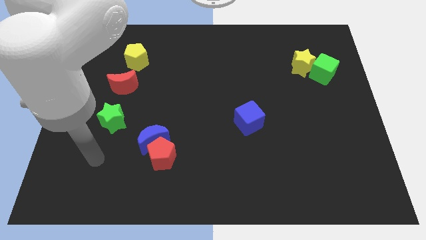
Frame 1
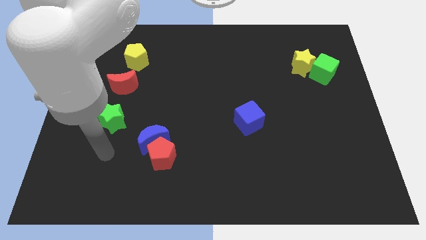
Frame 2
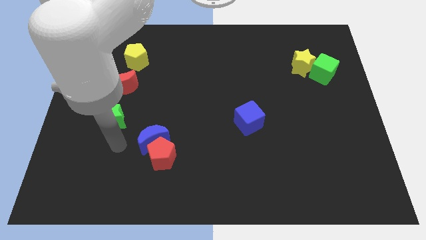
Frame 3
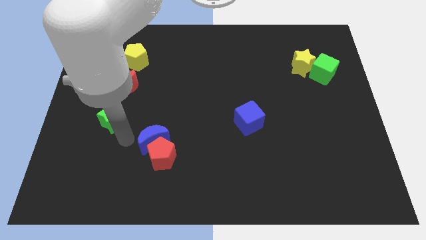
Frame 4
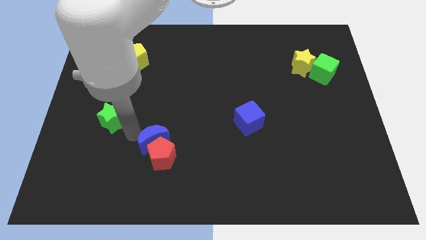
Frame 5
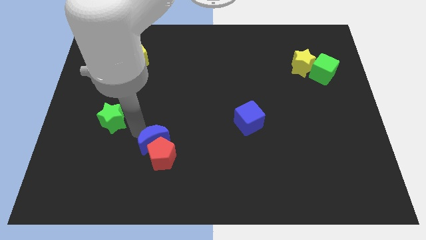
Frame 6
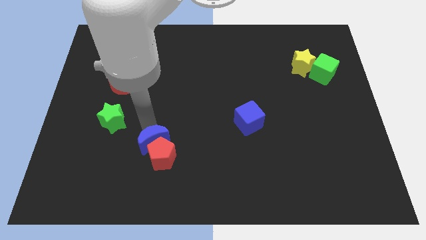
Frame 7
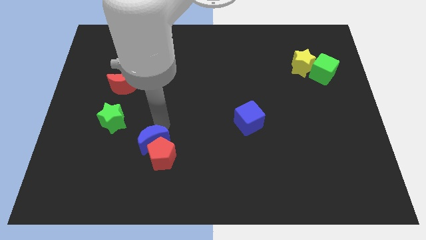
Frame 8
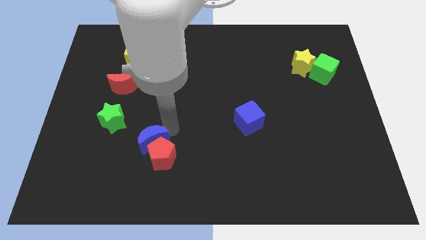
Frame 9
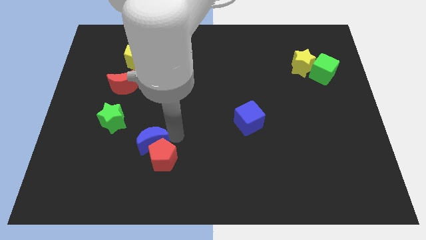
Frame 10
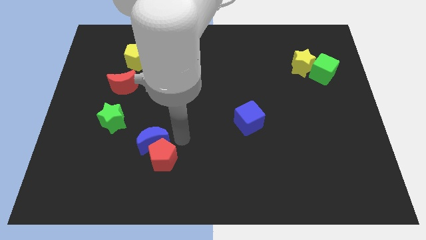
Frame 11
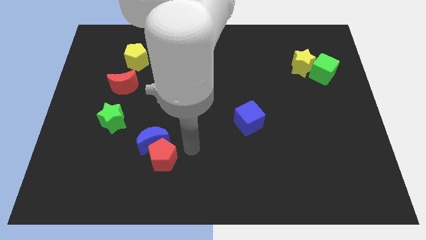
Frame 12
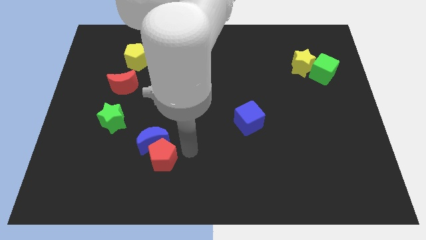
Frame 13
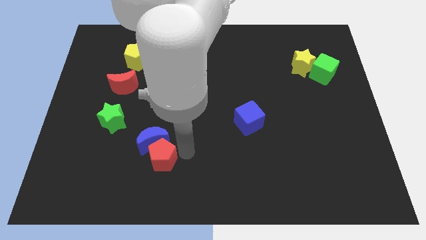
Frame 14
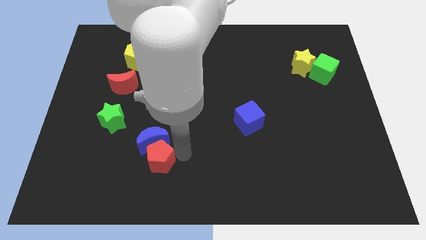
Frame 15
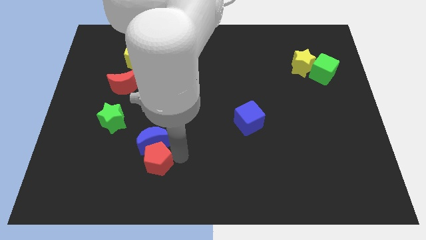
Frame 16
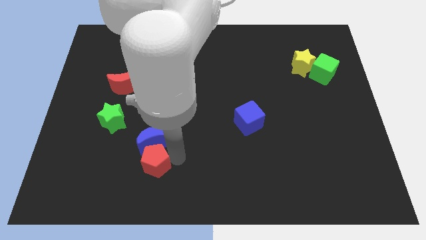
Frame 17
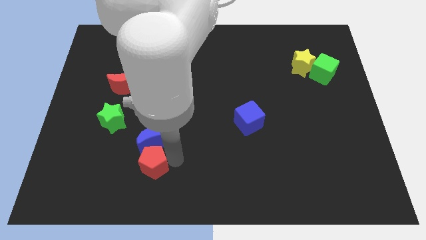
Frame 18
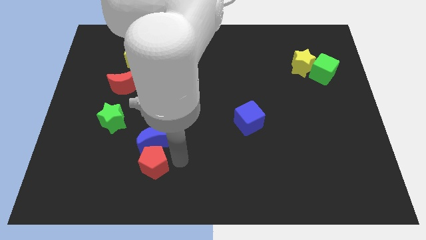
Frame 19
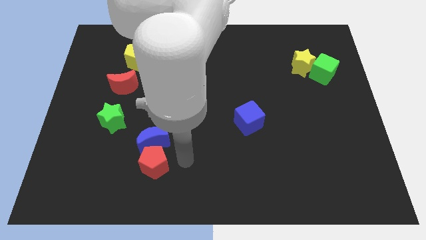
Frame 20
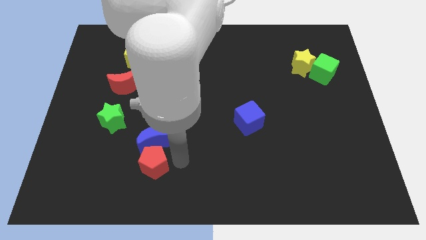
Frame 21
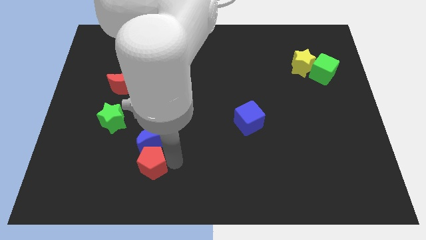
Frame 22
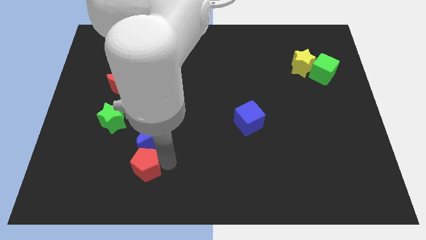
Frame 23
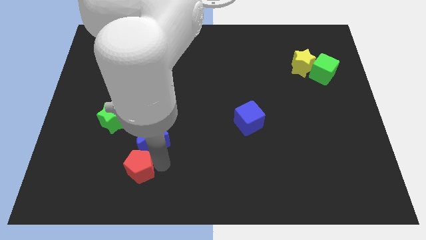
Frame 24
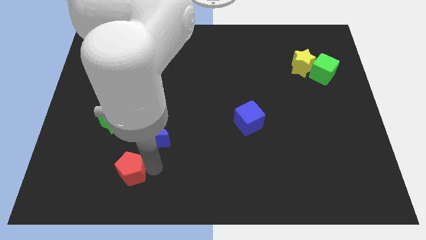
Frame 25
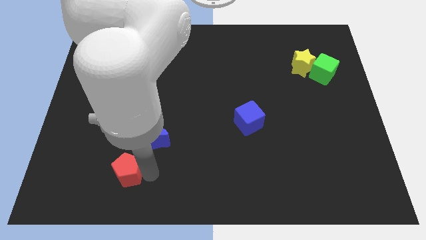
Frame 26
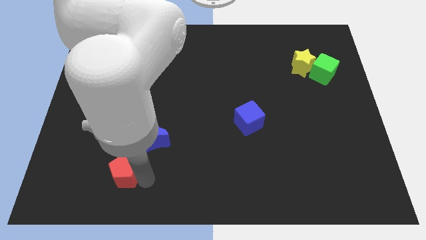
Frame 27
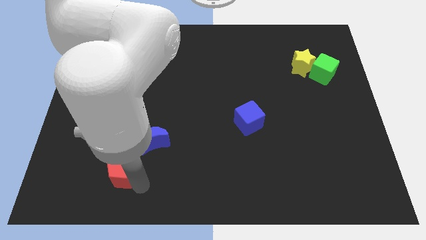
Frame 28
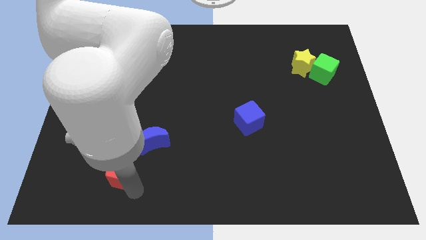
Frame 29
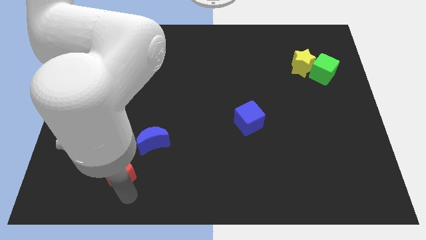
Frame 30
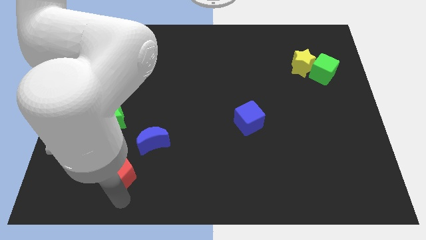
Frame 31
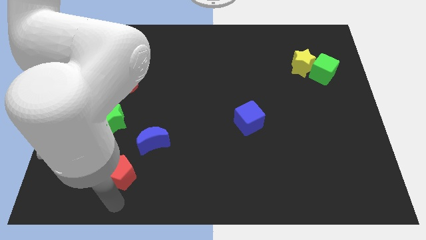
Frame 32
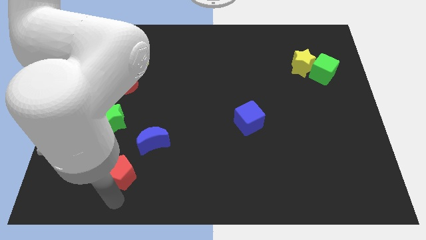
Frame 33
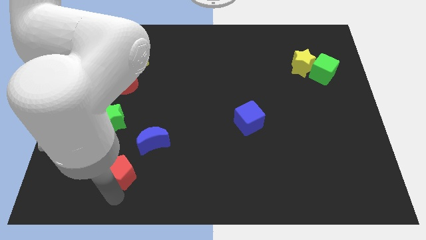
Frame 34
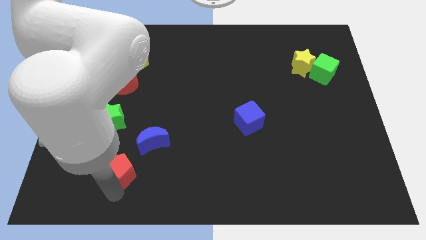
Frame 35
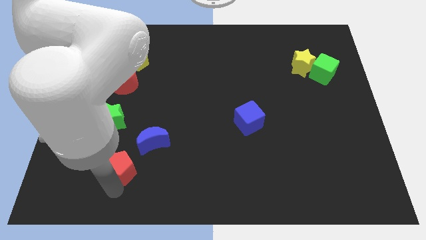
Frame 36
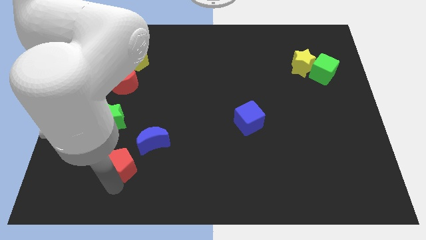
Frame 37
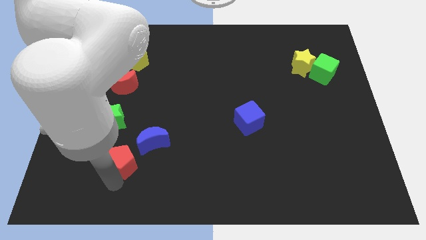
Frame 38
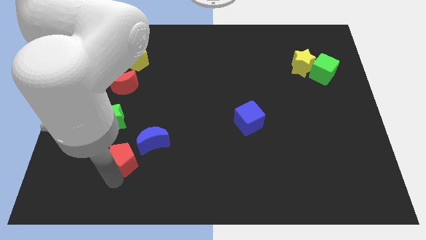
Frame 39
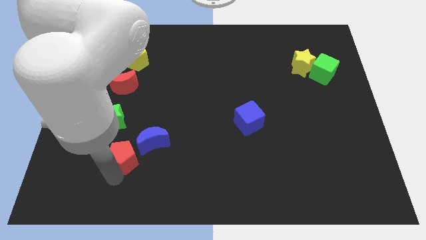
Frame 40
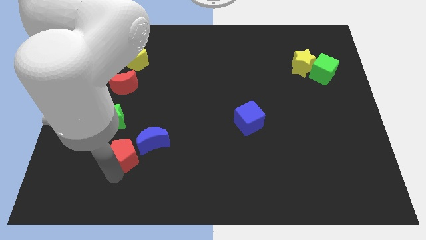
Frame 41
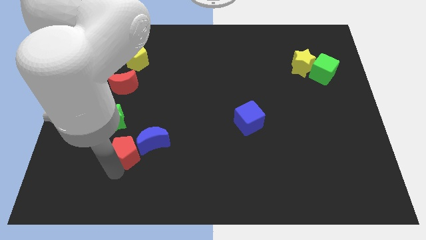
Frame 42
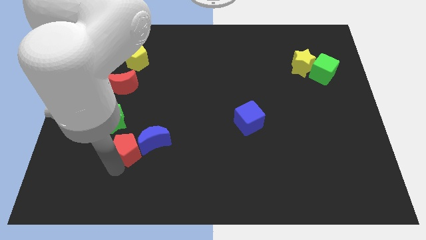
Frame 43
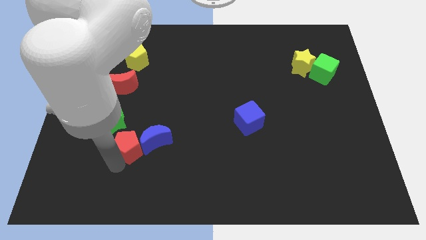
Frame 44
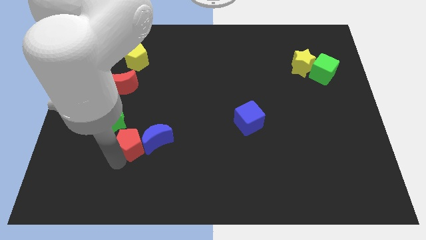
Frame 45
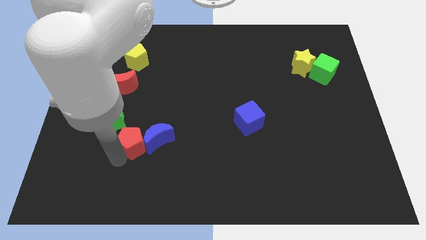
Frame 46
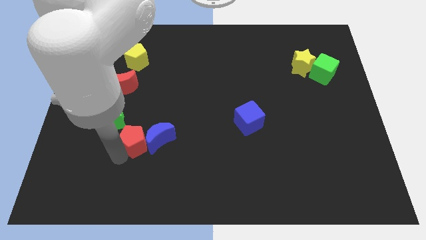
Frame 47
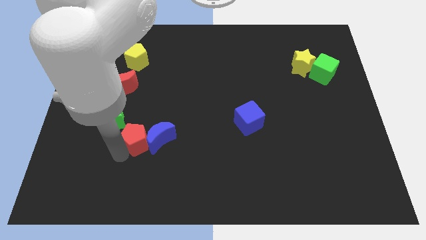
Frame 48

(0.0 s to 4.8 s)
move the red pentagon somewhat upwards and then left

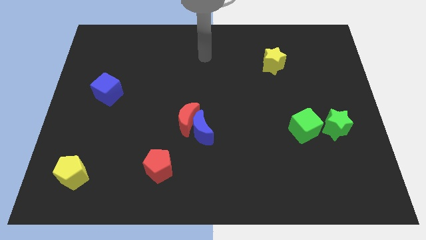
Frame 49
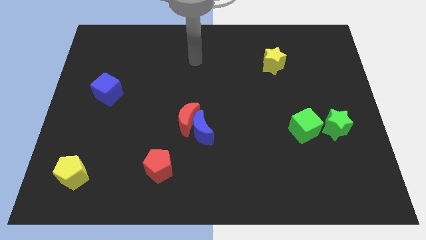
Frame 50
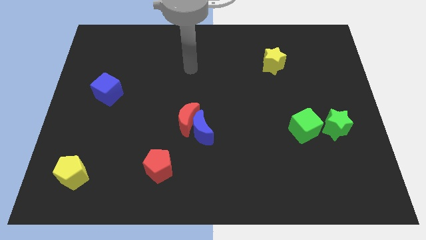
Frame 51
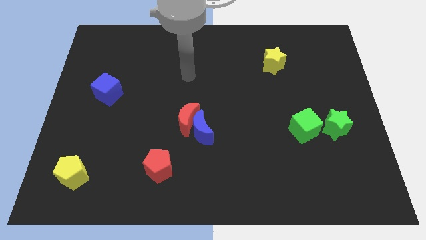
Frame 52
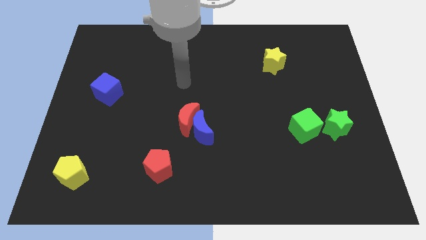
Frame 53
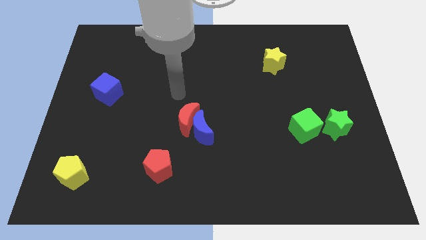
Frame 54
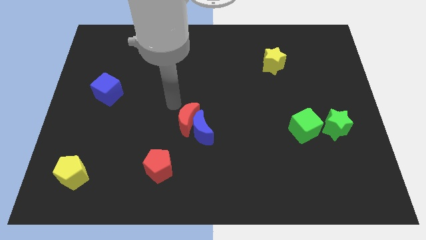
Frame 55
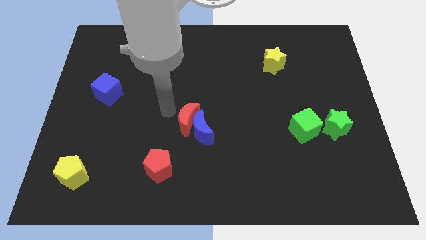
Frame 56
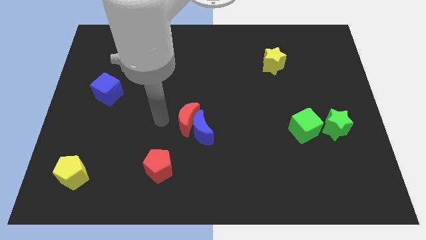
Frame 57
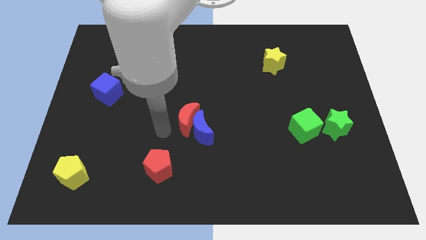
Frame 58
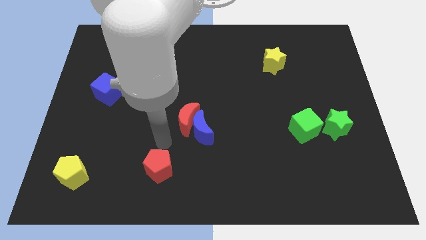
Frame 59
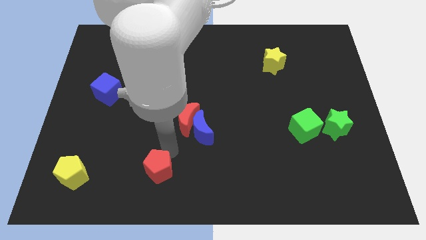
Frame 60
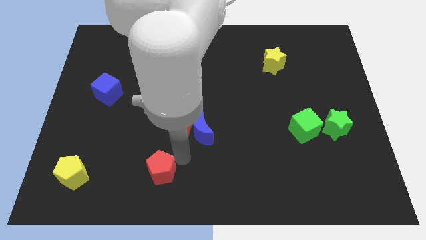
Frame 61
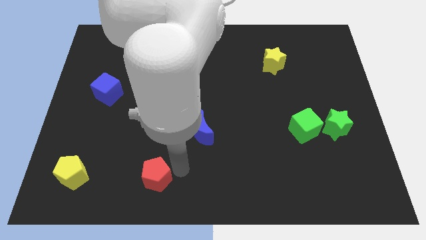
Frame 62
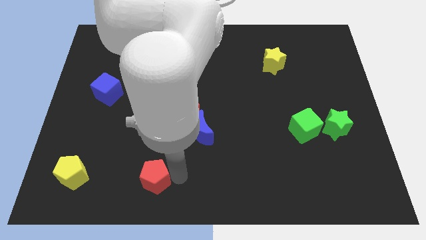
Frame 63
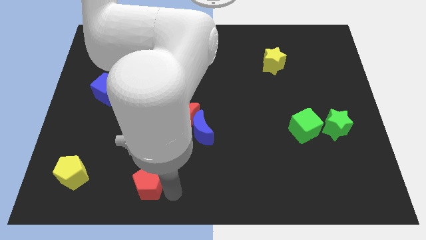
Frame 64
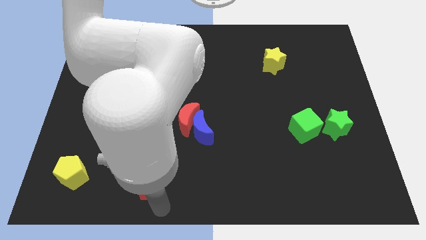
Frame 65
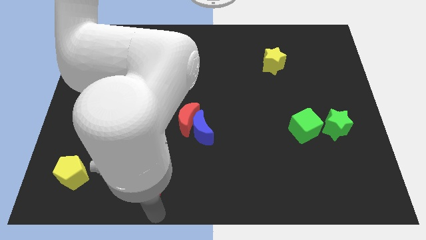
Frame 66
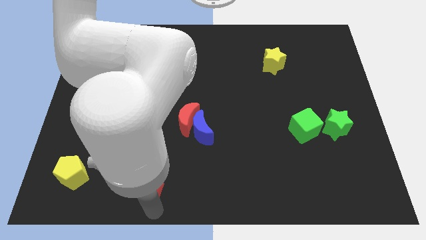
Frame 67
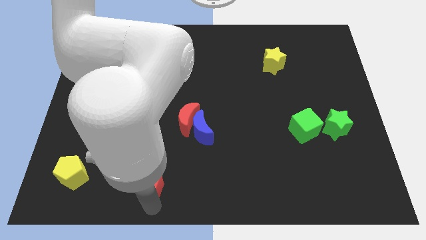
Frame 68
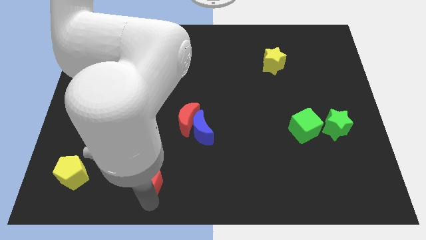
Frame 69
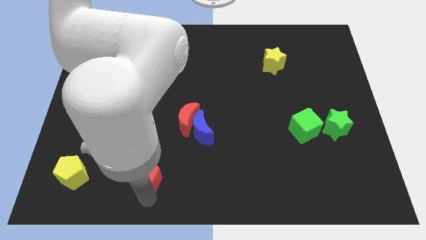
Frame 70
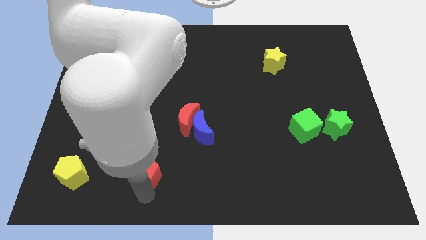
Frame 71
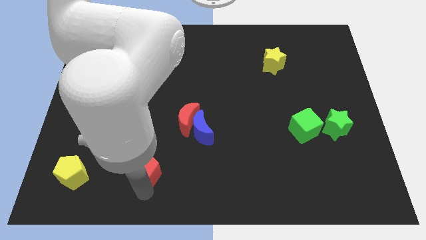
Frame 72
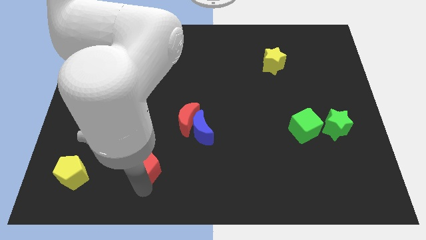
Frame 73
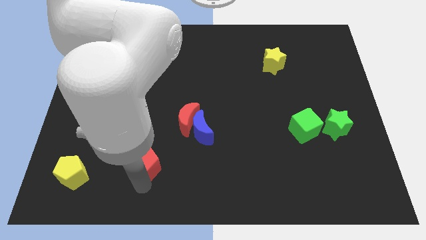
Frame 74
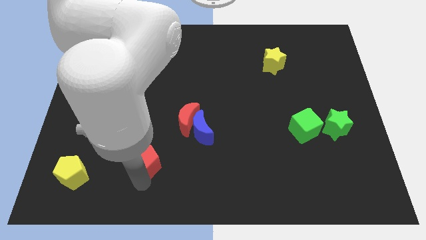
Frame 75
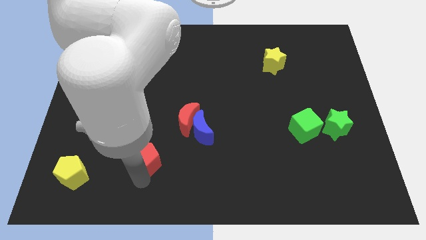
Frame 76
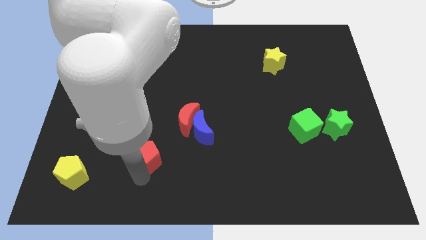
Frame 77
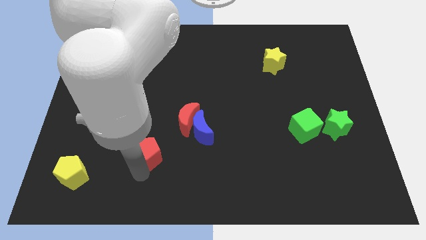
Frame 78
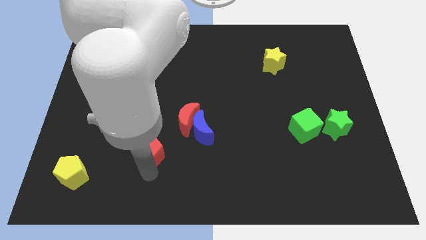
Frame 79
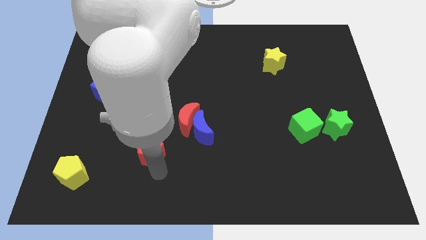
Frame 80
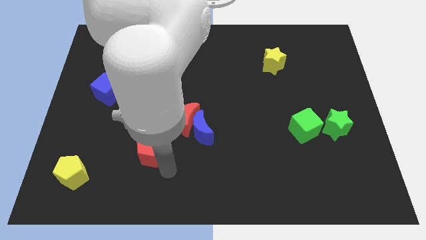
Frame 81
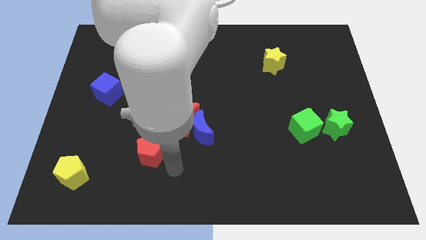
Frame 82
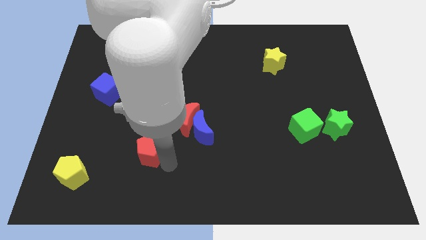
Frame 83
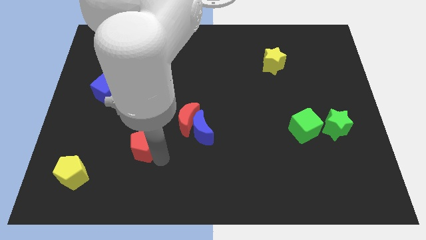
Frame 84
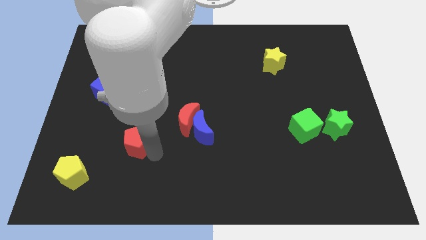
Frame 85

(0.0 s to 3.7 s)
slightly slide the red pentagon upwards and left
